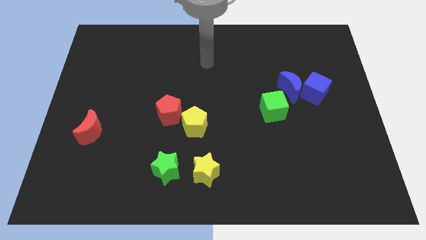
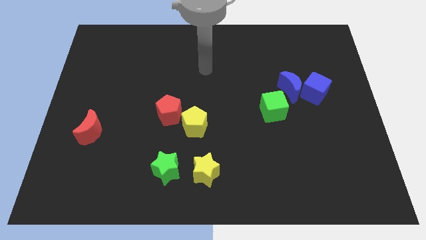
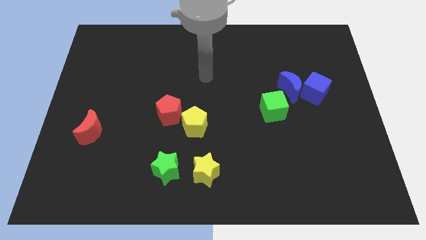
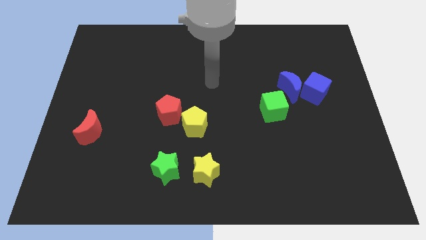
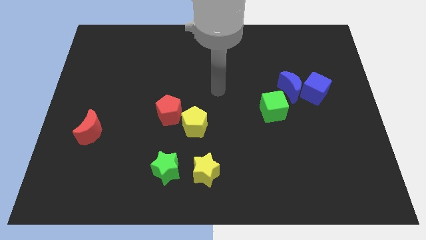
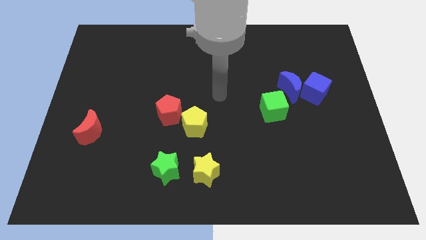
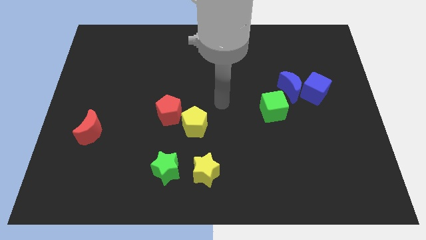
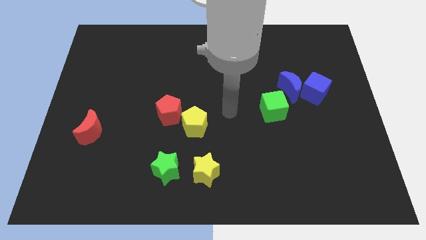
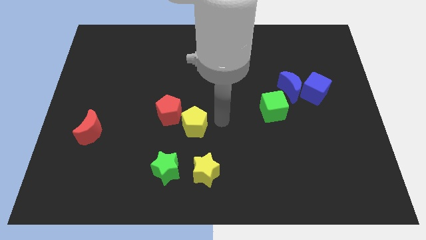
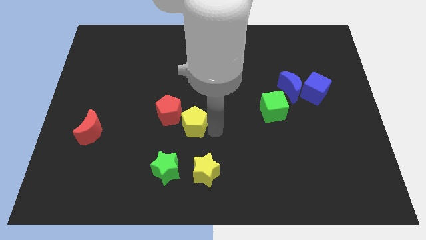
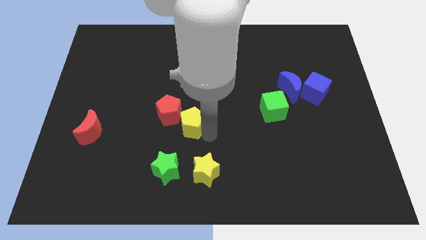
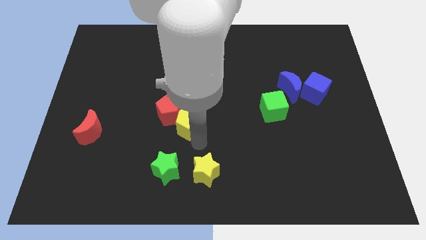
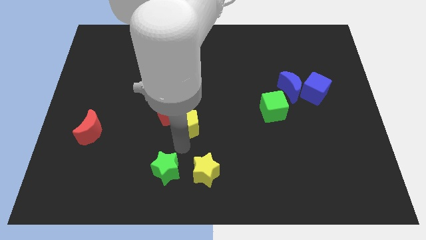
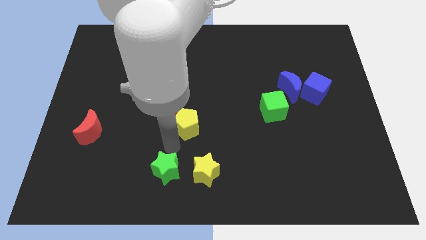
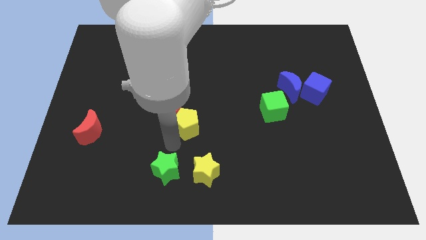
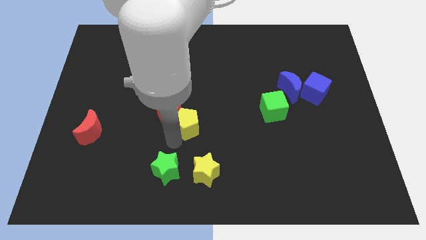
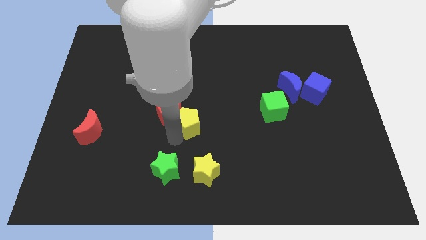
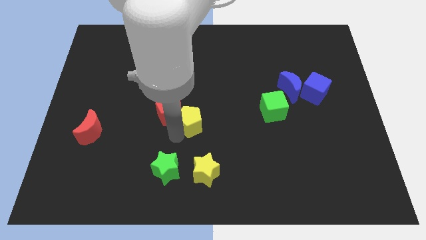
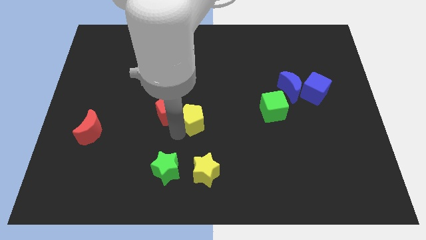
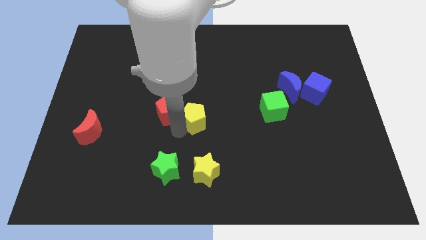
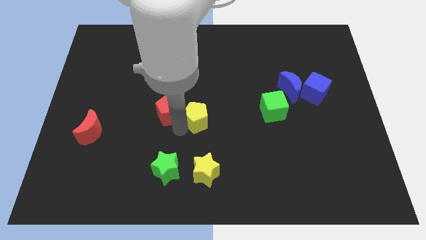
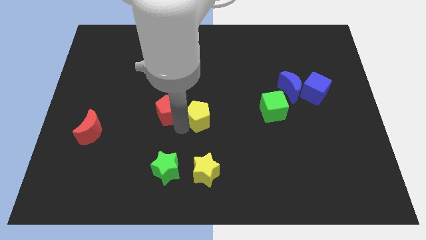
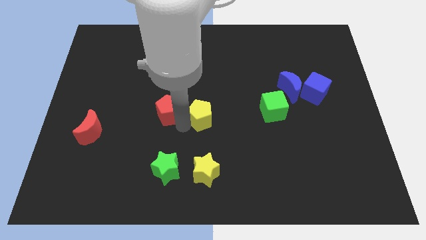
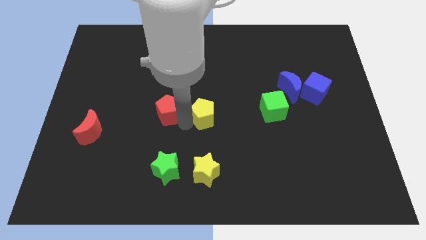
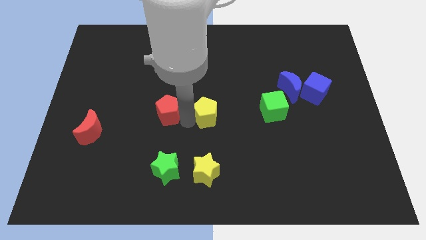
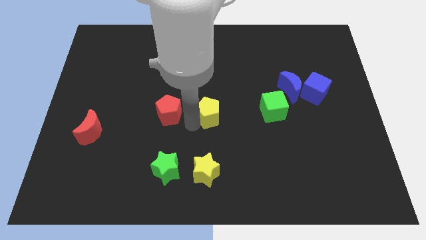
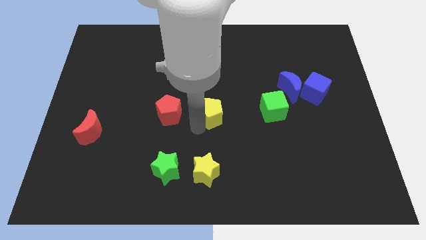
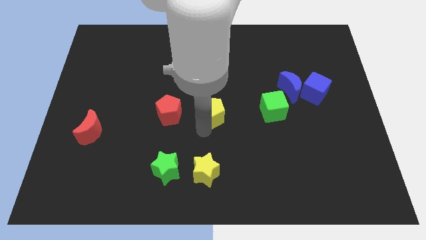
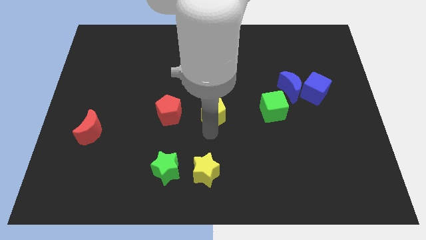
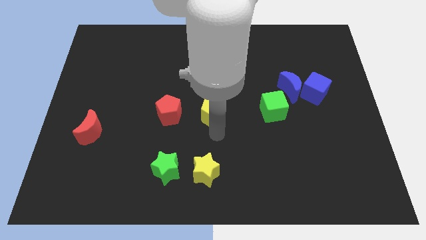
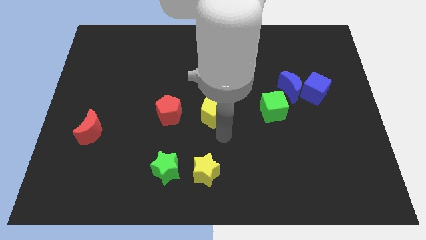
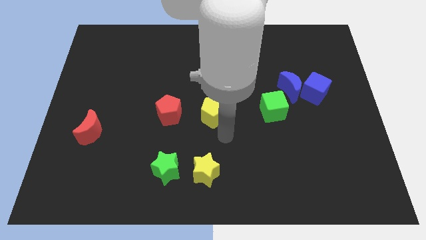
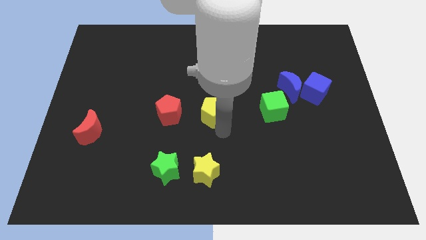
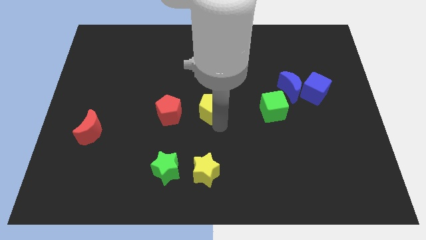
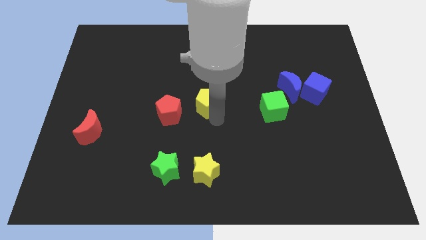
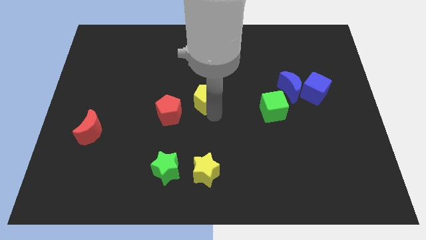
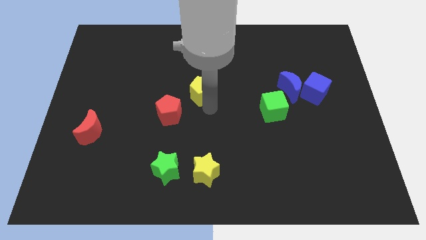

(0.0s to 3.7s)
move the yellow pentagon upwards slightly

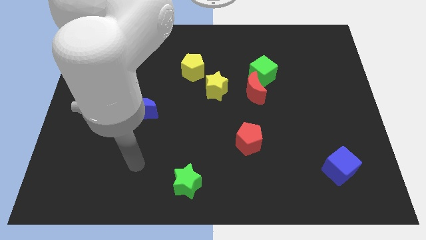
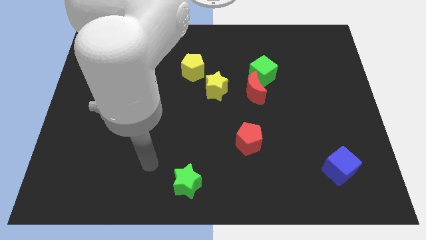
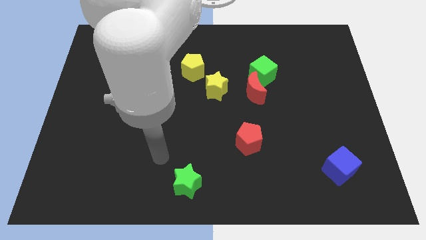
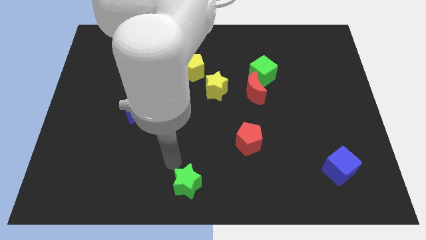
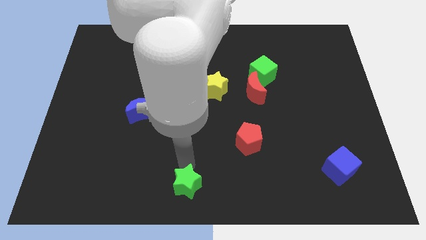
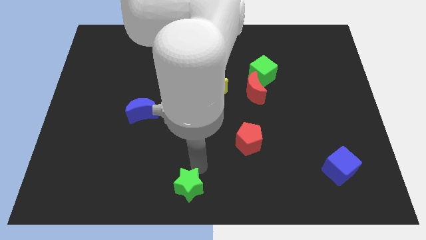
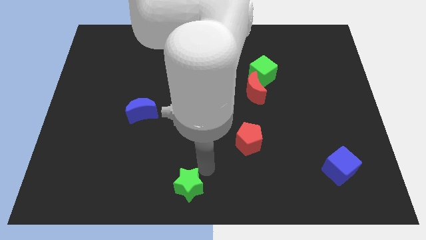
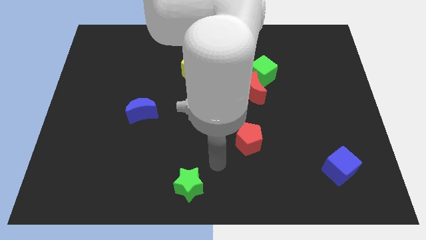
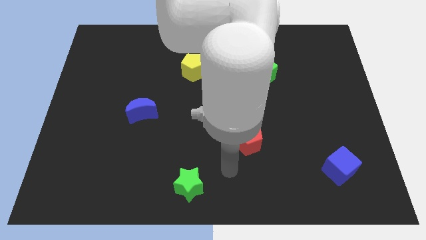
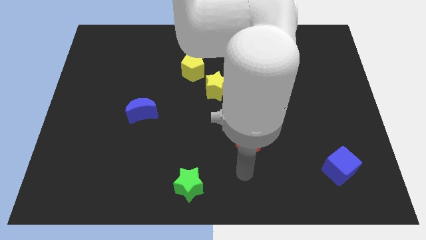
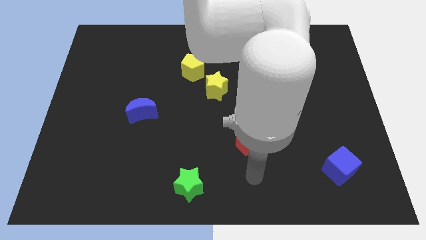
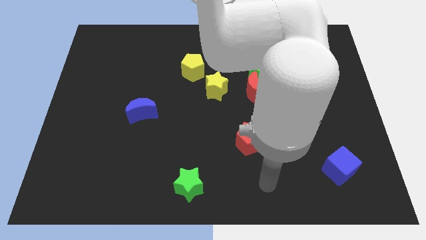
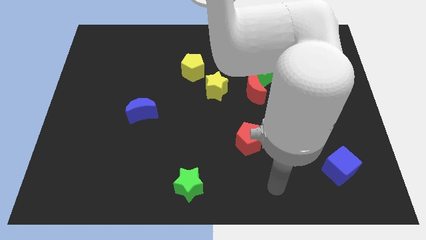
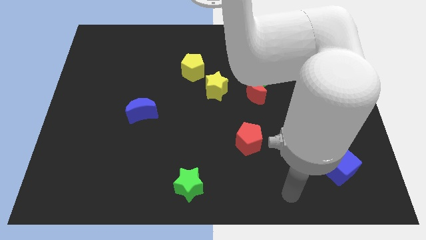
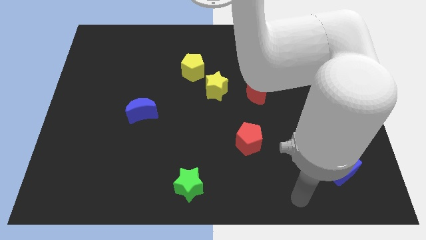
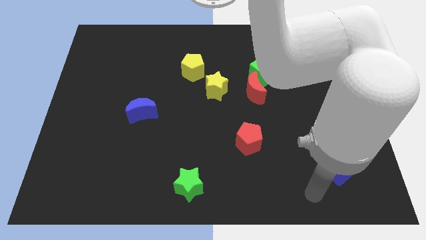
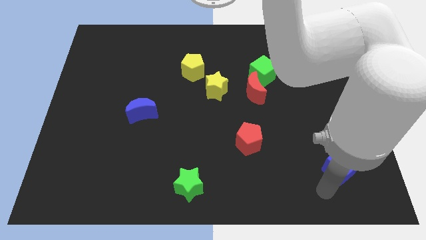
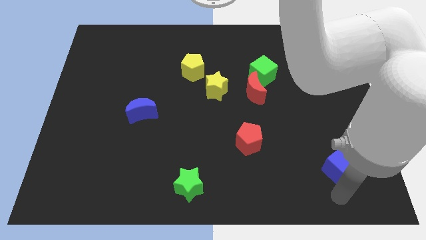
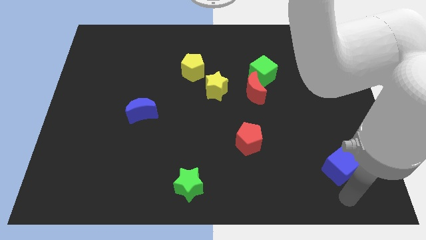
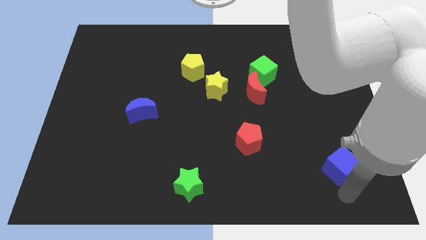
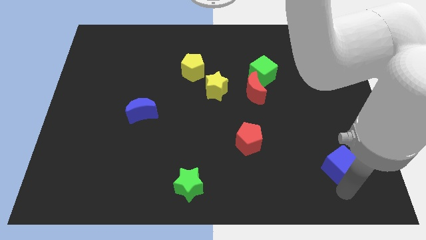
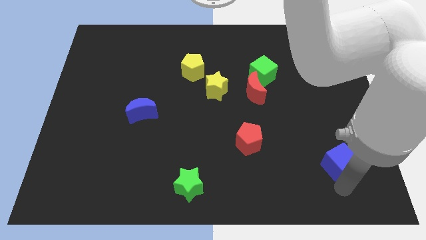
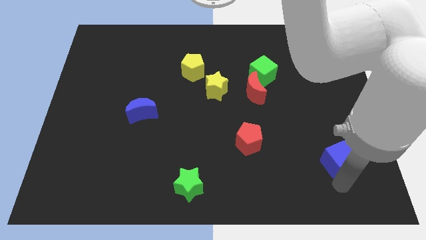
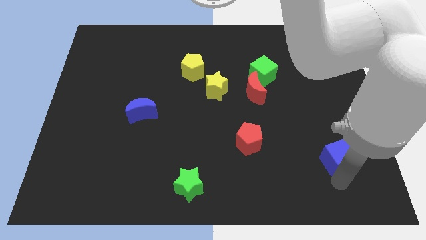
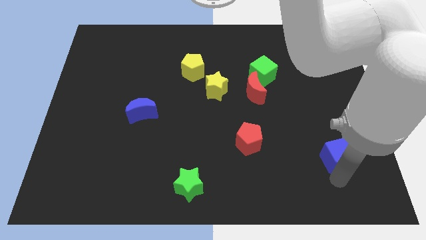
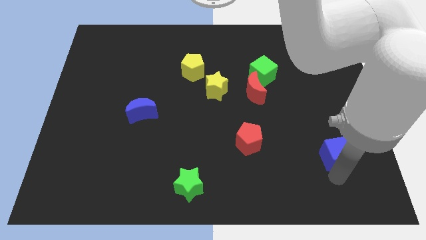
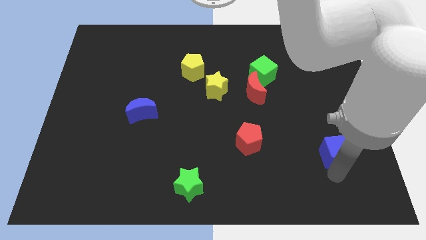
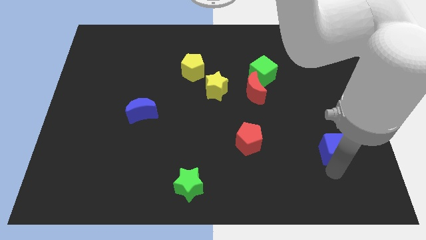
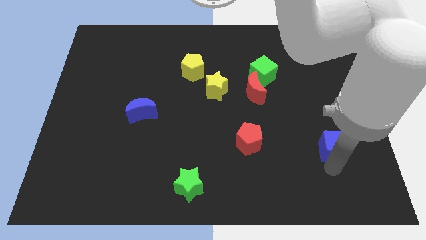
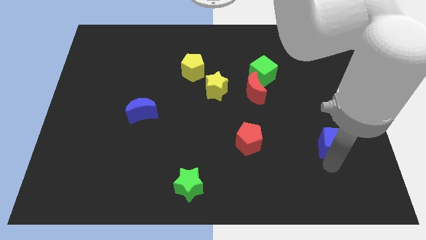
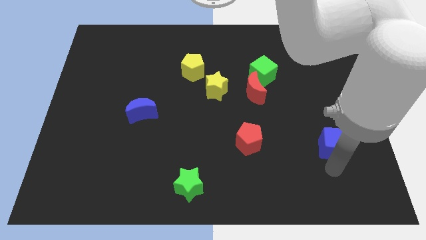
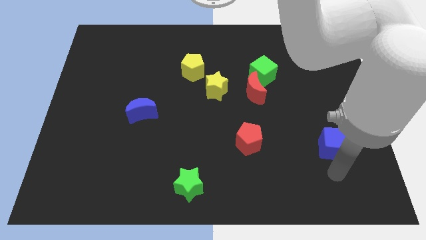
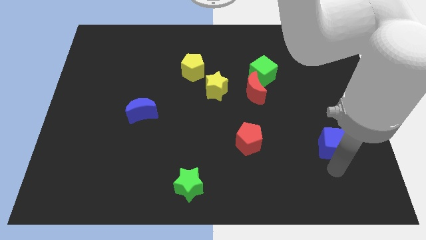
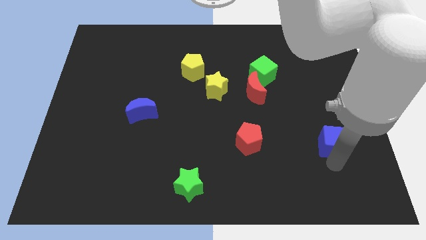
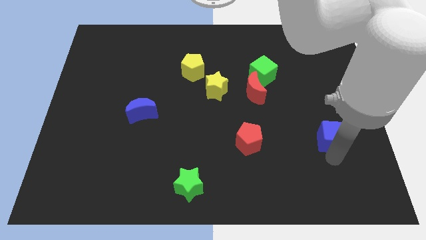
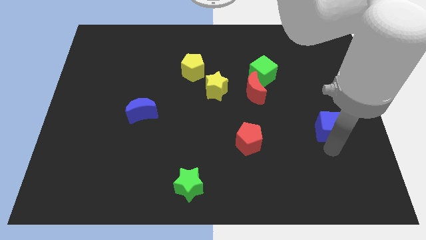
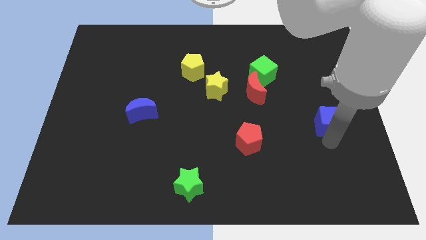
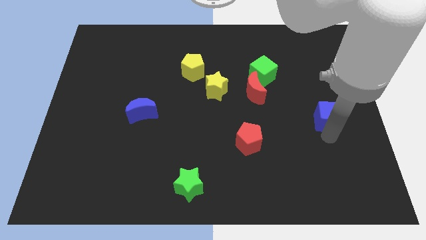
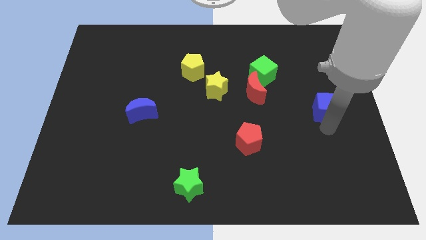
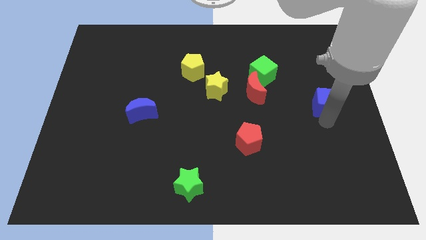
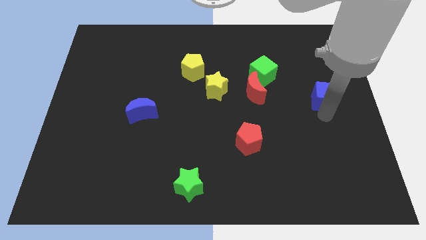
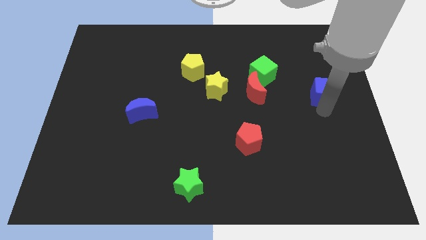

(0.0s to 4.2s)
slide the blue cube upwards

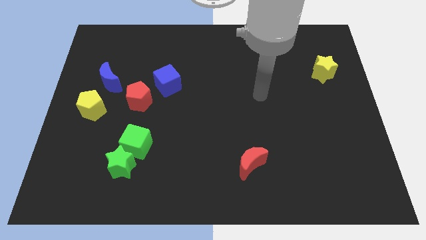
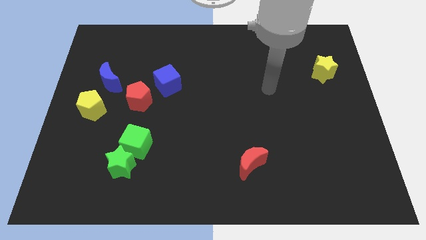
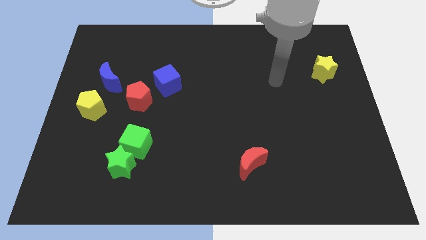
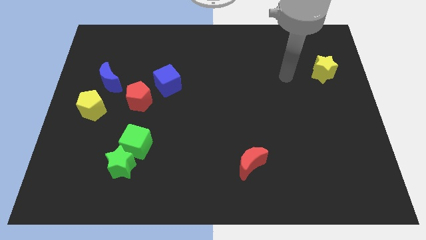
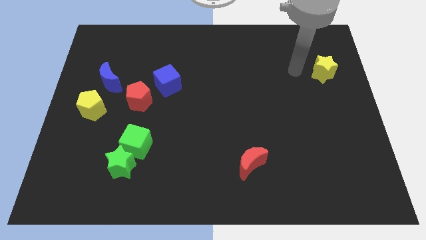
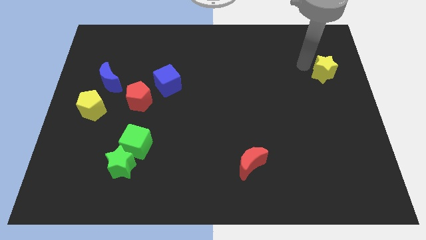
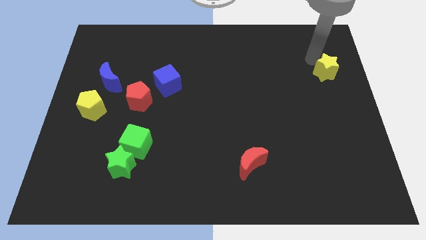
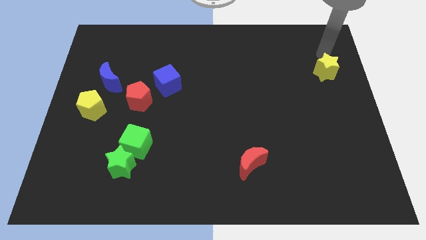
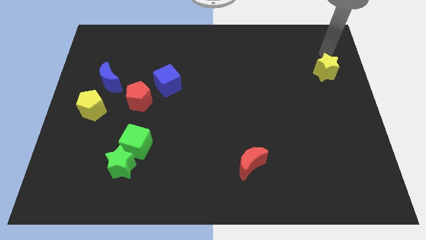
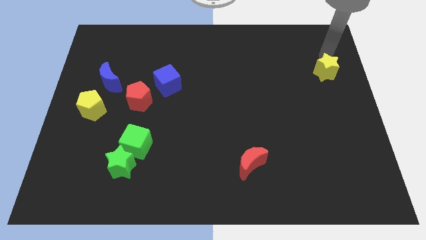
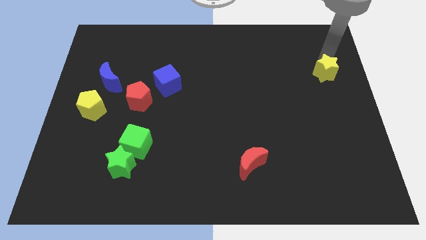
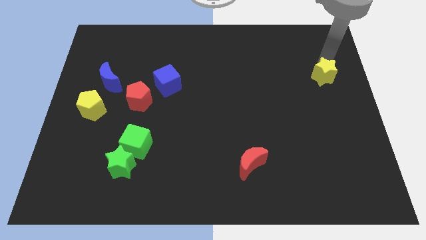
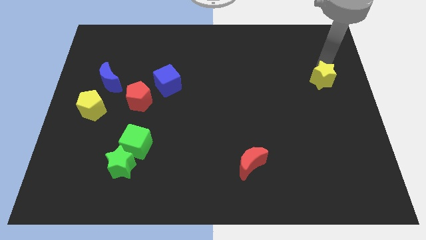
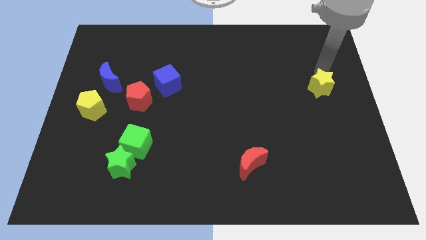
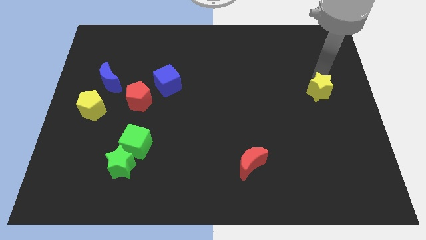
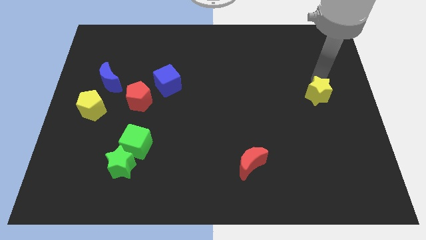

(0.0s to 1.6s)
slightly move the yellow star down
